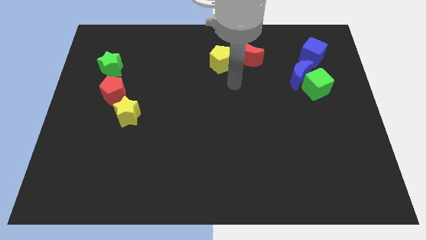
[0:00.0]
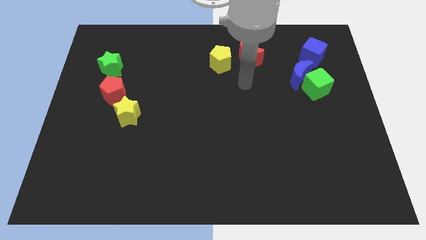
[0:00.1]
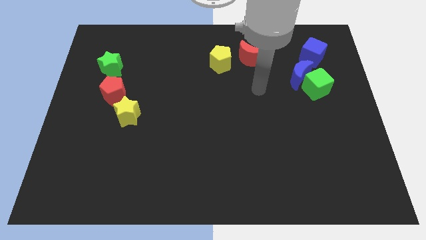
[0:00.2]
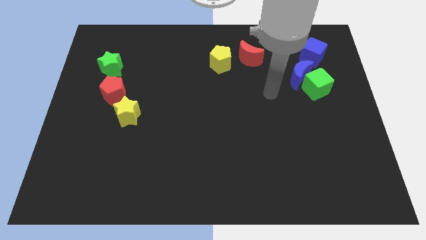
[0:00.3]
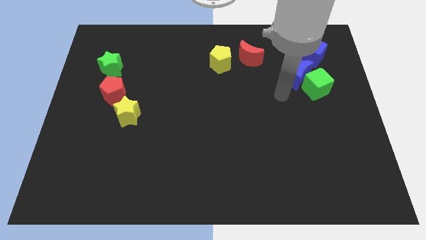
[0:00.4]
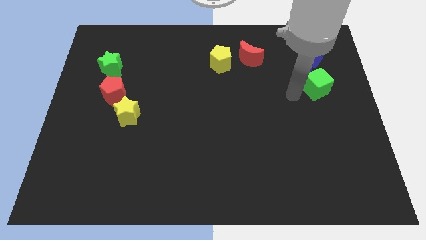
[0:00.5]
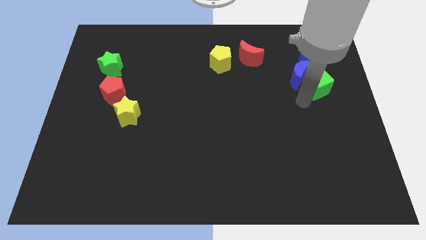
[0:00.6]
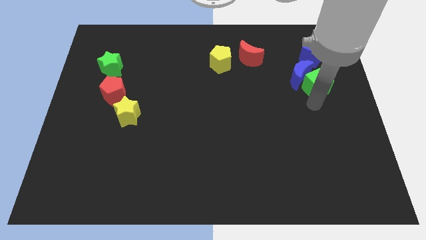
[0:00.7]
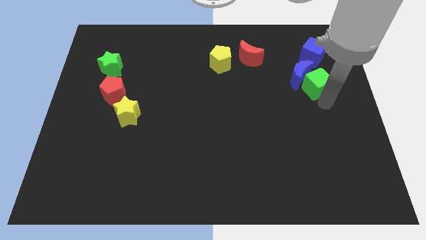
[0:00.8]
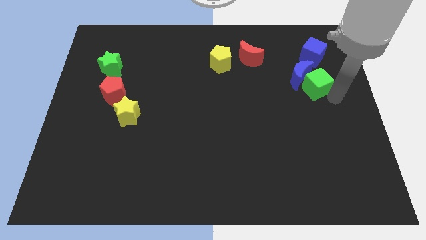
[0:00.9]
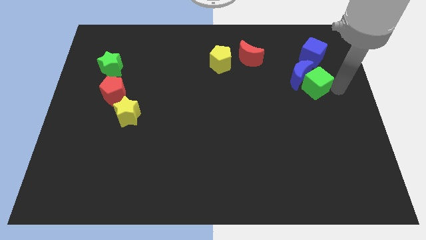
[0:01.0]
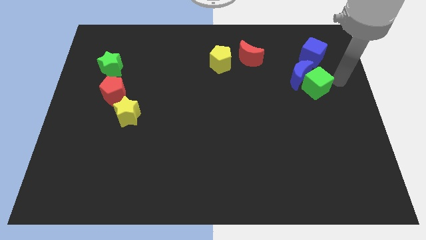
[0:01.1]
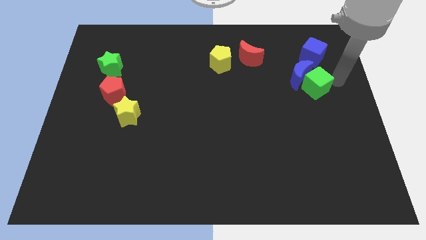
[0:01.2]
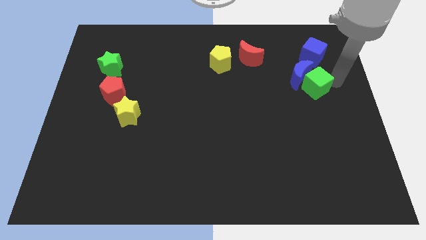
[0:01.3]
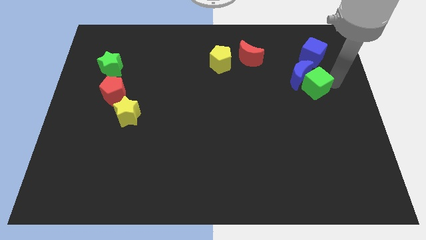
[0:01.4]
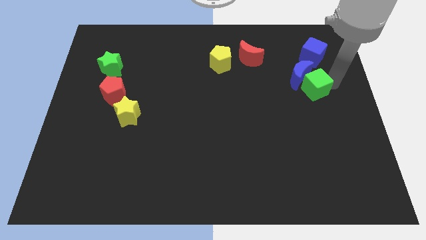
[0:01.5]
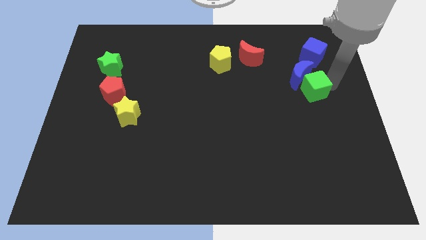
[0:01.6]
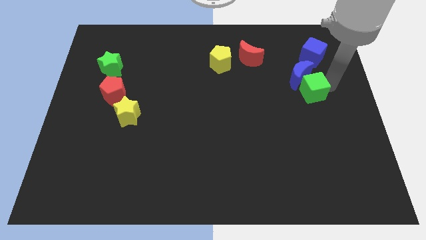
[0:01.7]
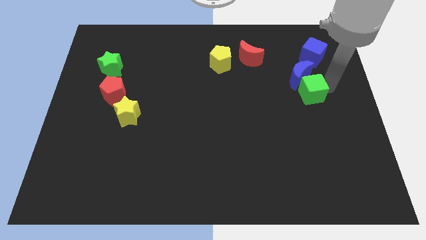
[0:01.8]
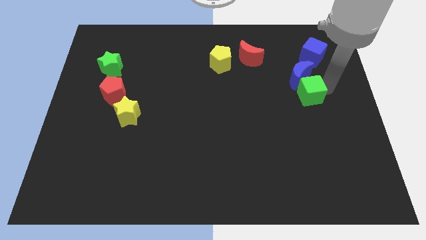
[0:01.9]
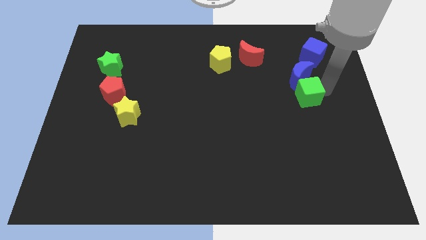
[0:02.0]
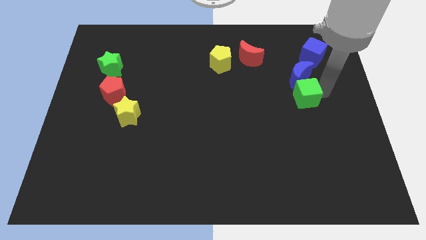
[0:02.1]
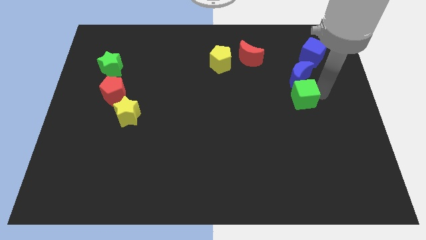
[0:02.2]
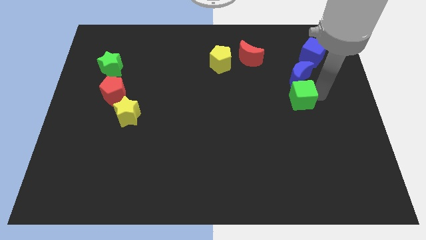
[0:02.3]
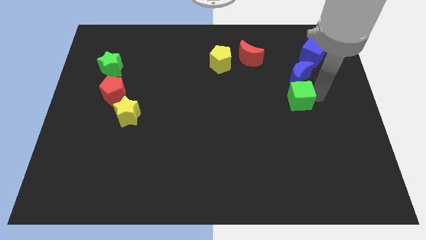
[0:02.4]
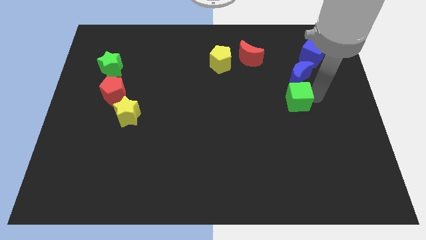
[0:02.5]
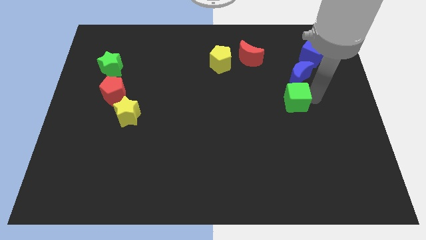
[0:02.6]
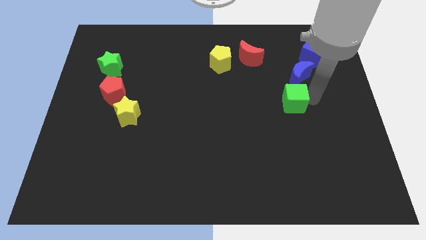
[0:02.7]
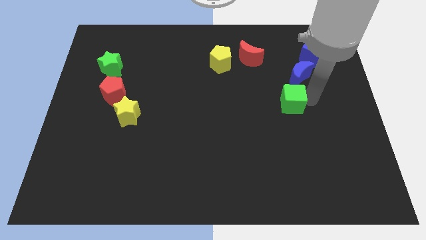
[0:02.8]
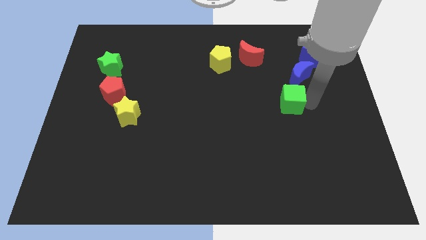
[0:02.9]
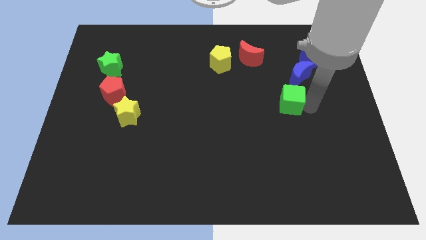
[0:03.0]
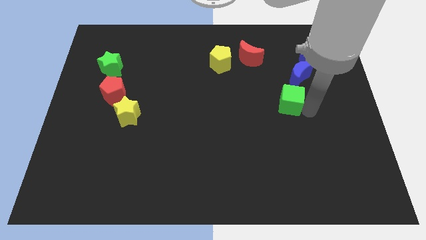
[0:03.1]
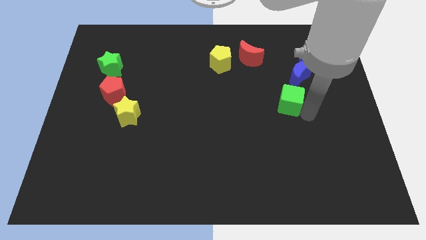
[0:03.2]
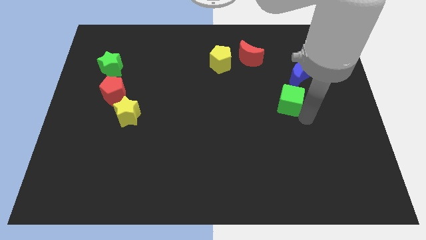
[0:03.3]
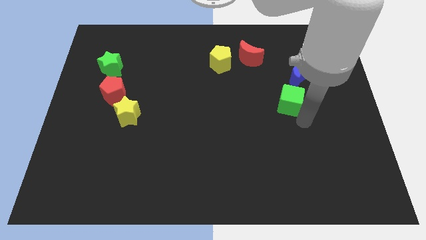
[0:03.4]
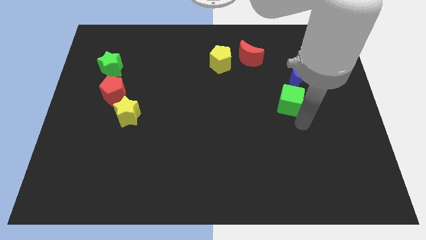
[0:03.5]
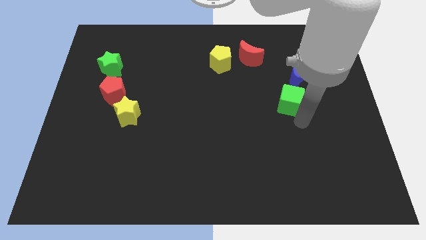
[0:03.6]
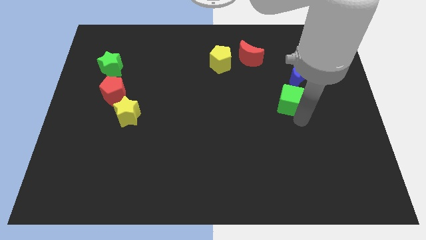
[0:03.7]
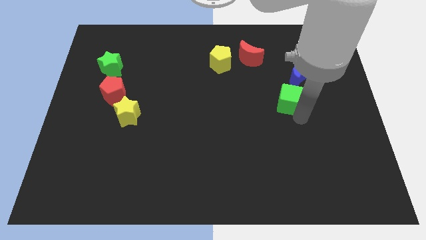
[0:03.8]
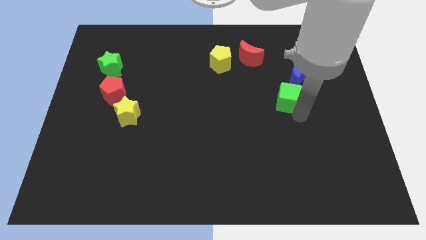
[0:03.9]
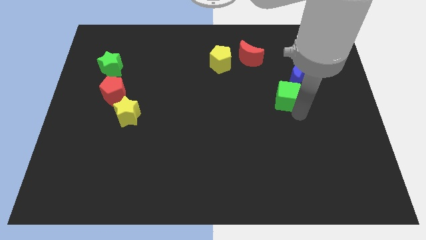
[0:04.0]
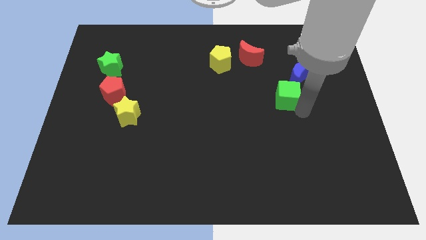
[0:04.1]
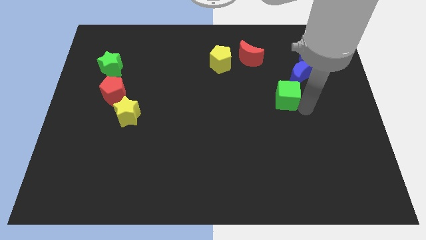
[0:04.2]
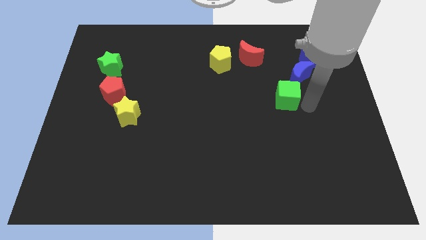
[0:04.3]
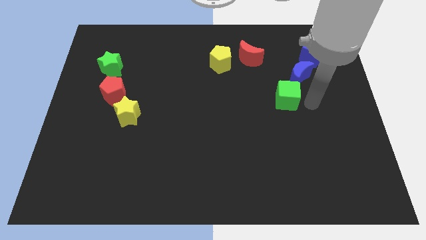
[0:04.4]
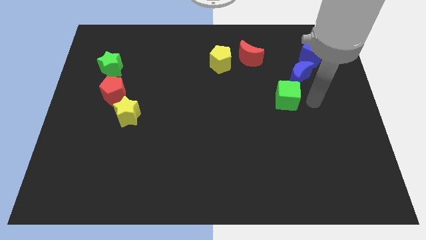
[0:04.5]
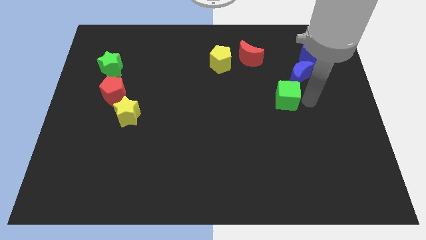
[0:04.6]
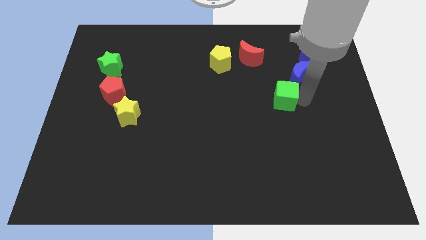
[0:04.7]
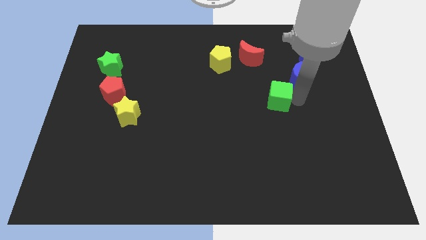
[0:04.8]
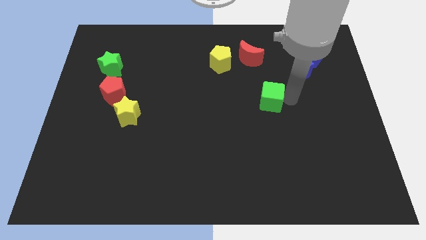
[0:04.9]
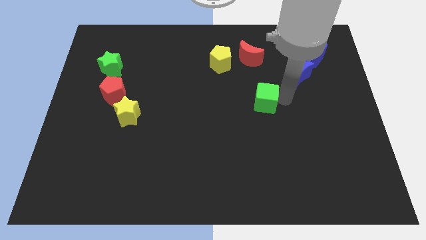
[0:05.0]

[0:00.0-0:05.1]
push the green cube to the middle of the board

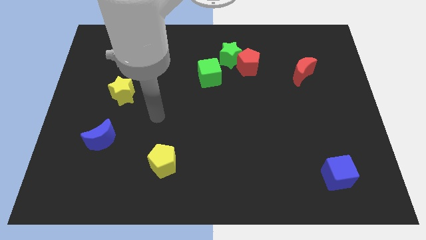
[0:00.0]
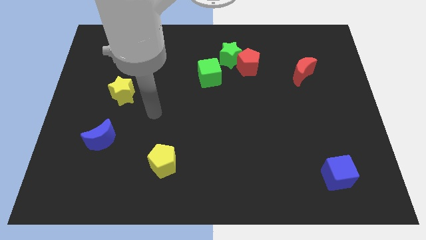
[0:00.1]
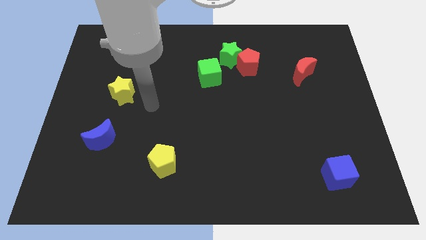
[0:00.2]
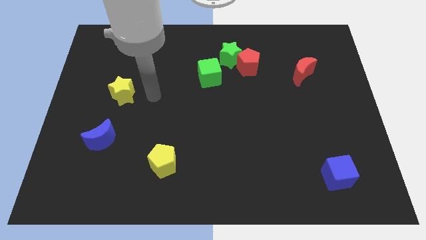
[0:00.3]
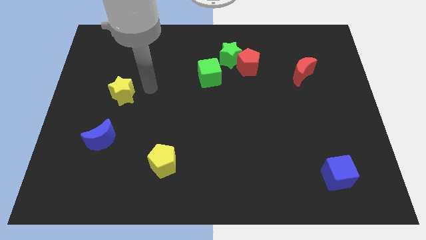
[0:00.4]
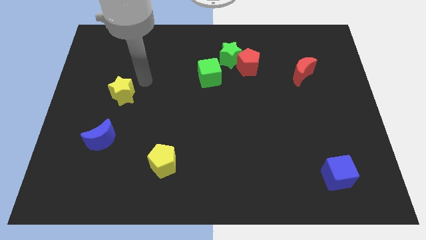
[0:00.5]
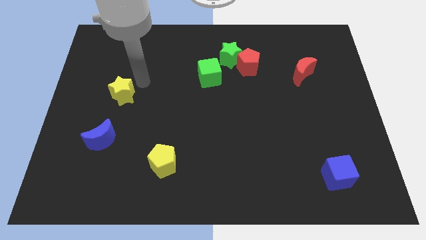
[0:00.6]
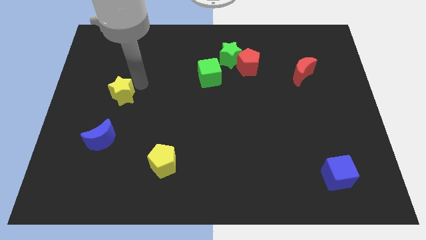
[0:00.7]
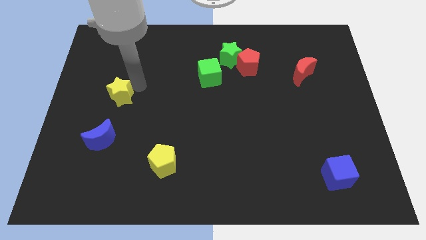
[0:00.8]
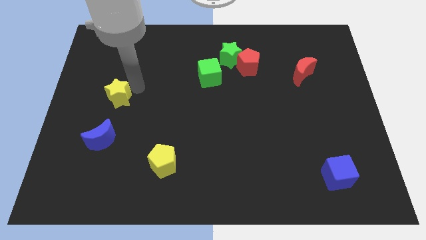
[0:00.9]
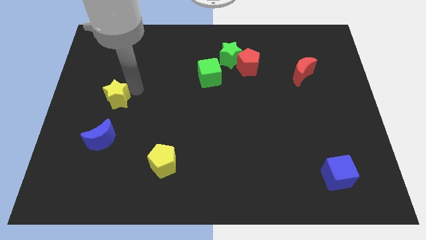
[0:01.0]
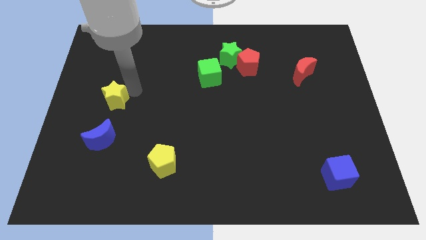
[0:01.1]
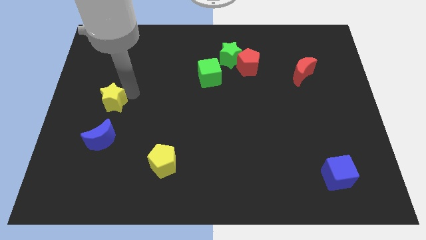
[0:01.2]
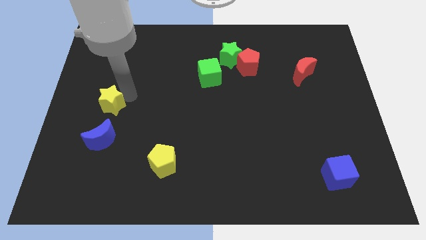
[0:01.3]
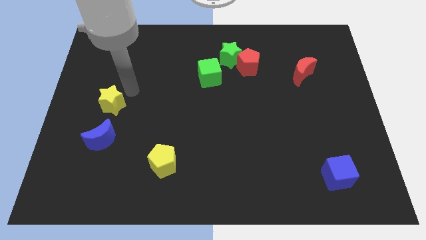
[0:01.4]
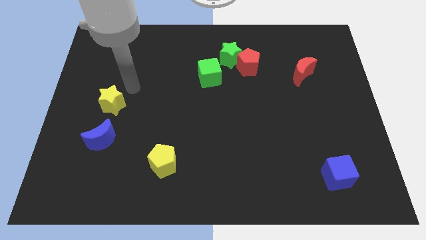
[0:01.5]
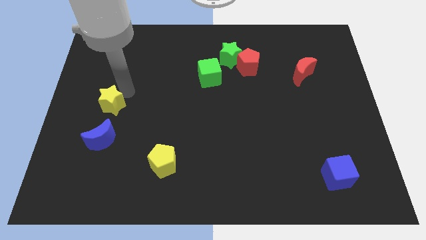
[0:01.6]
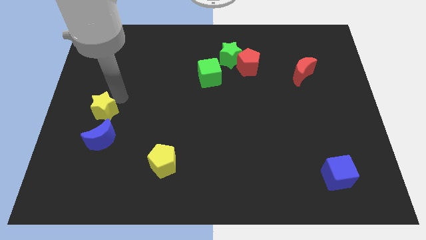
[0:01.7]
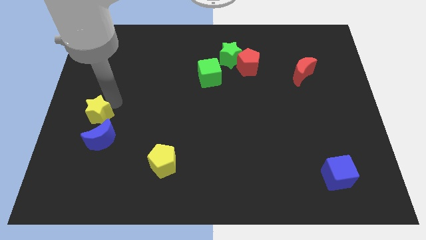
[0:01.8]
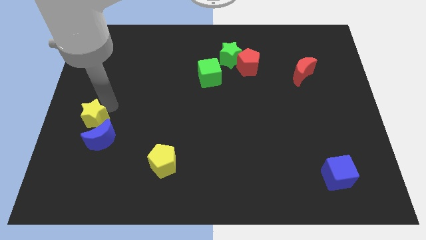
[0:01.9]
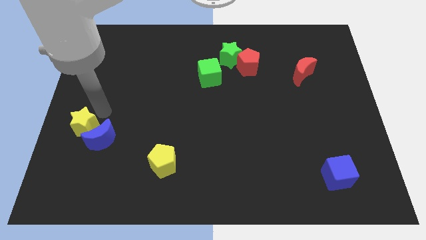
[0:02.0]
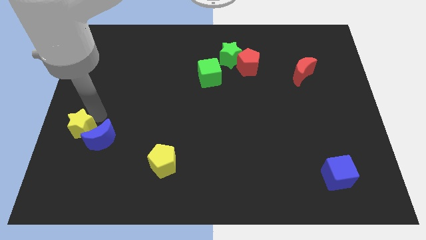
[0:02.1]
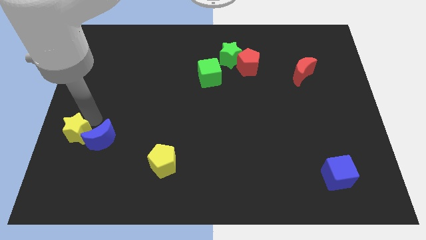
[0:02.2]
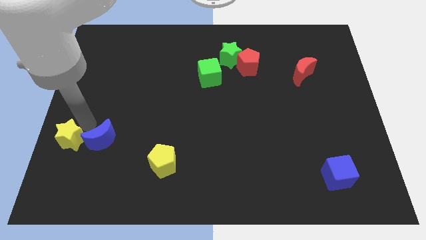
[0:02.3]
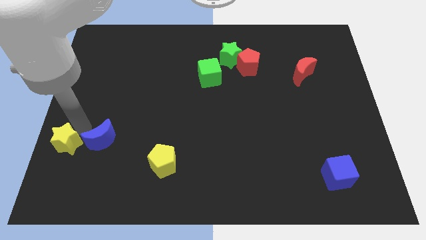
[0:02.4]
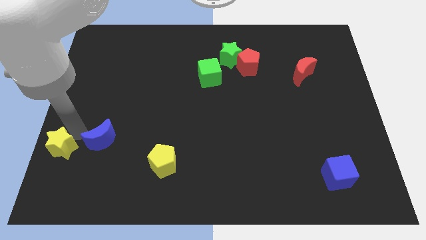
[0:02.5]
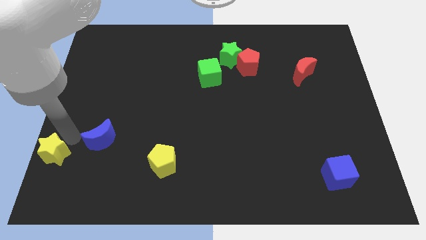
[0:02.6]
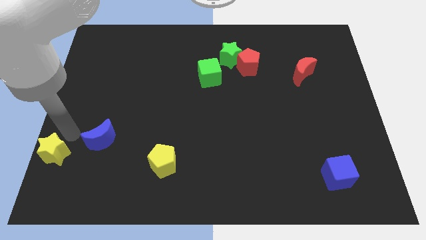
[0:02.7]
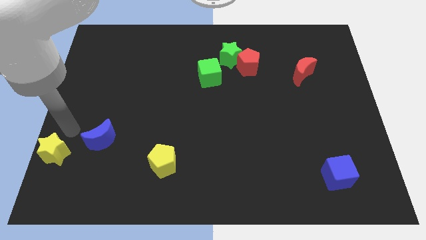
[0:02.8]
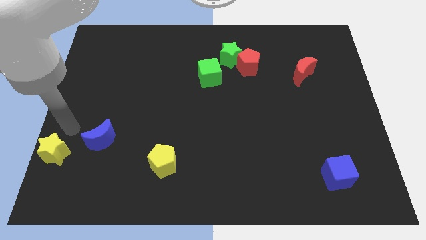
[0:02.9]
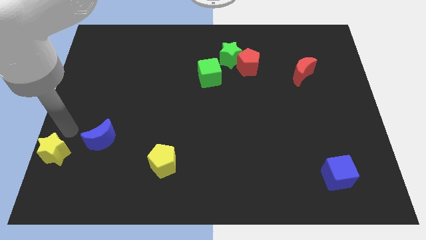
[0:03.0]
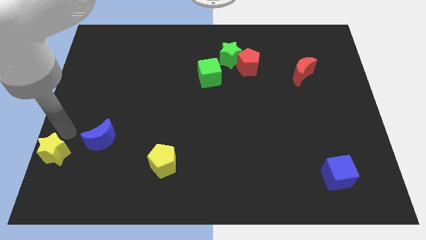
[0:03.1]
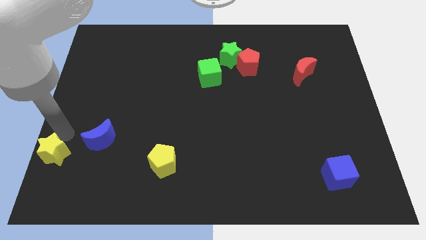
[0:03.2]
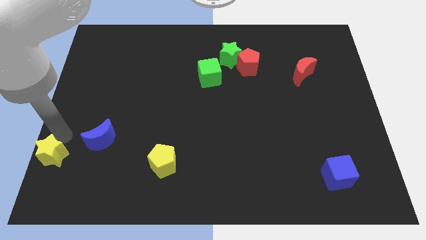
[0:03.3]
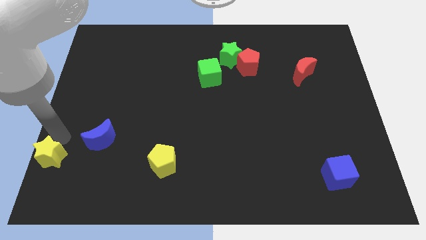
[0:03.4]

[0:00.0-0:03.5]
move the yellow star to the lower left corner
